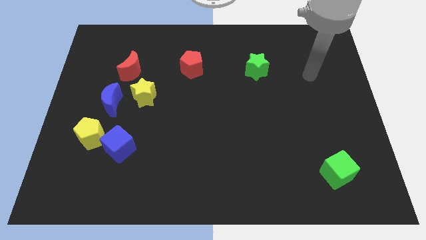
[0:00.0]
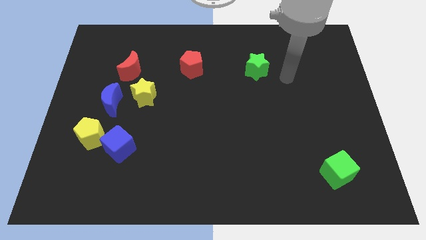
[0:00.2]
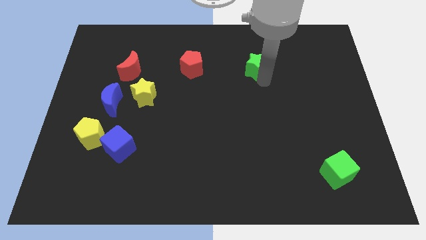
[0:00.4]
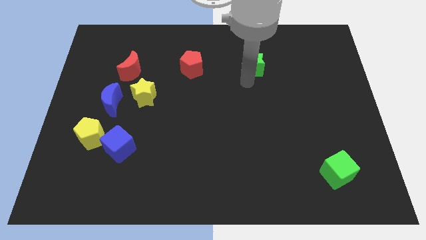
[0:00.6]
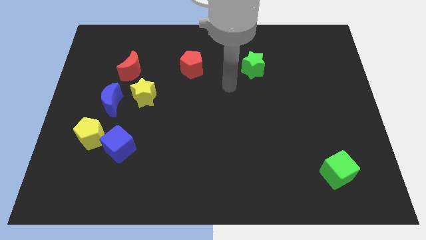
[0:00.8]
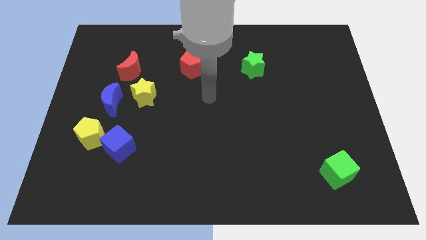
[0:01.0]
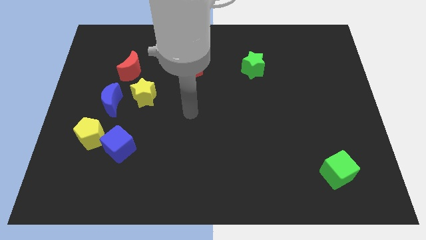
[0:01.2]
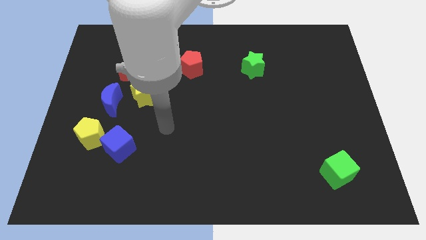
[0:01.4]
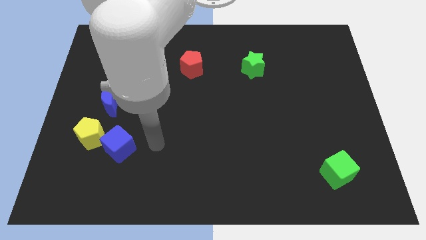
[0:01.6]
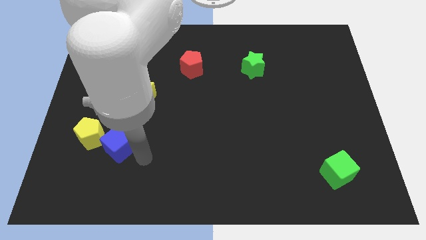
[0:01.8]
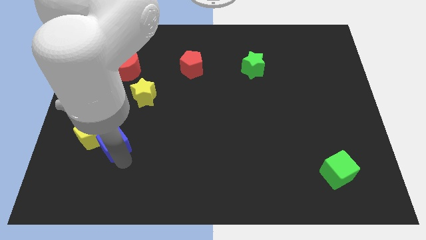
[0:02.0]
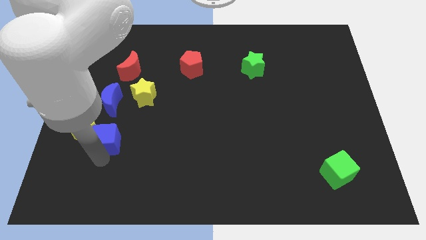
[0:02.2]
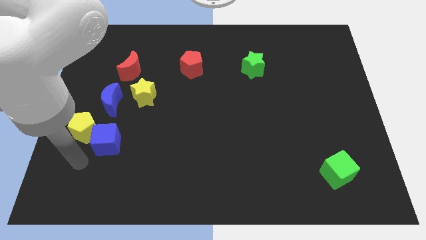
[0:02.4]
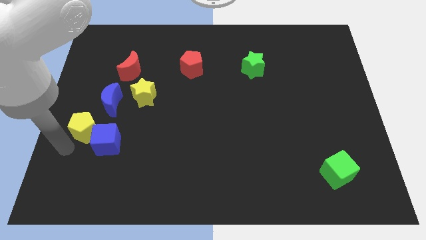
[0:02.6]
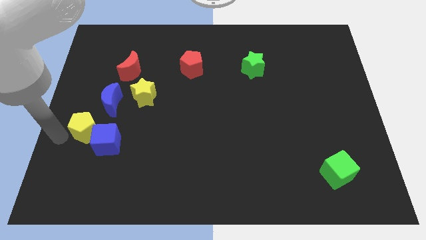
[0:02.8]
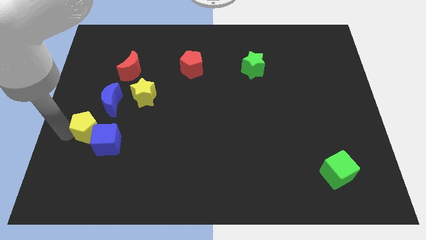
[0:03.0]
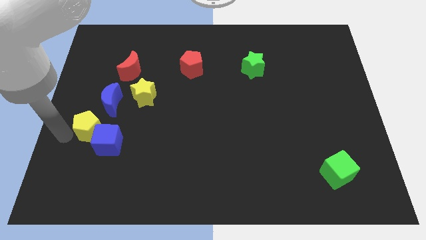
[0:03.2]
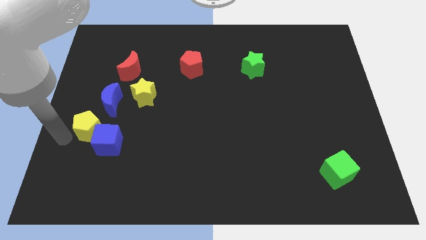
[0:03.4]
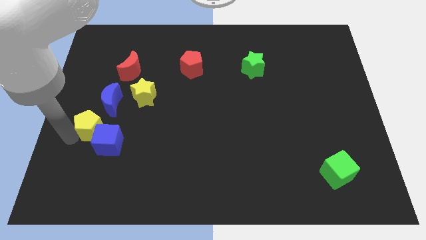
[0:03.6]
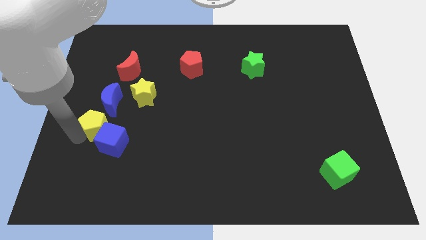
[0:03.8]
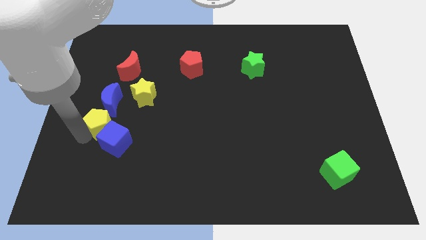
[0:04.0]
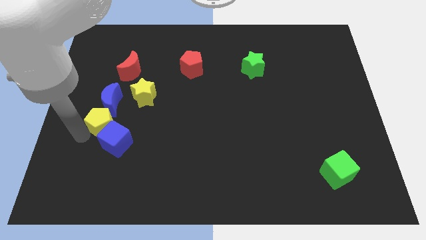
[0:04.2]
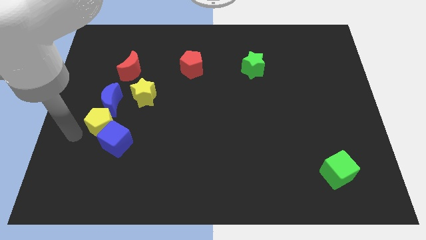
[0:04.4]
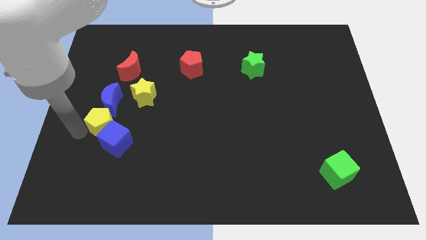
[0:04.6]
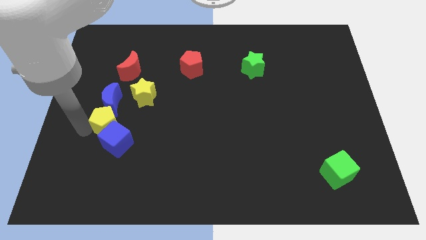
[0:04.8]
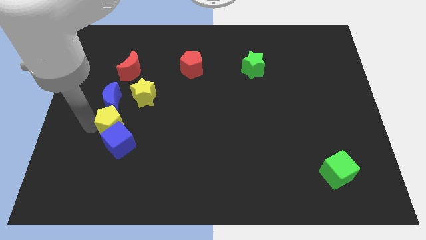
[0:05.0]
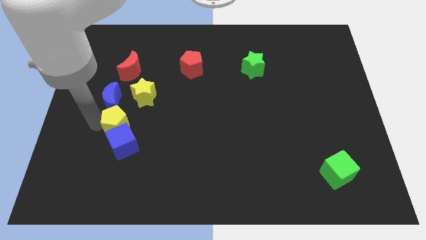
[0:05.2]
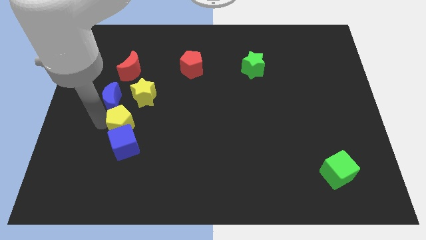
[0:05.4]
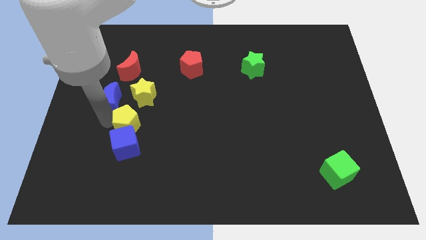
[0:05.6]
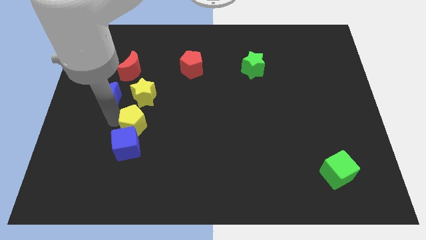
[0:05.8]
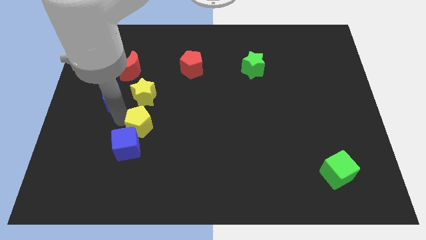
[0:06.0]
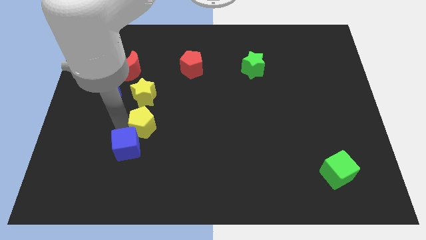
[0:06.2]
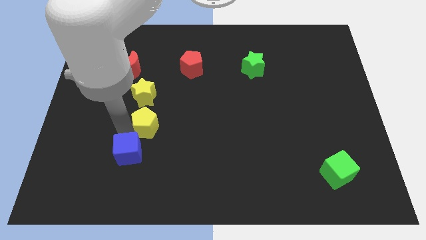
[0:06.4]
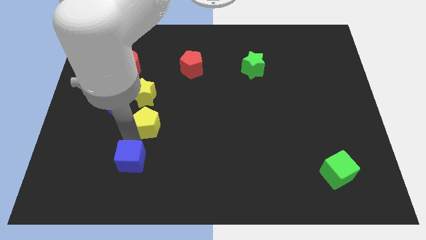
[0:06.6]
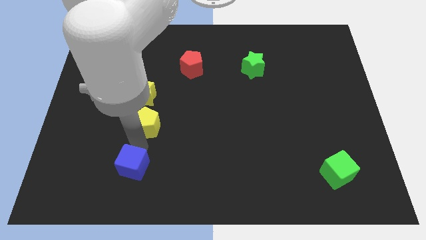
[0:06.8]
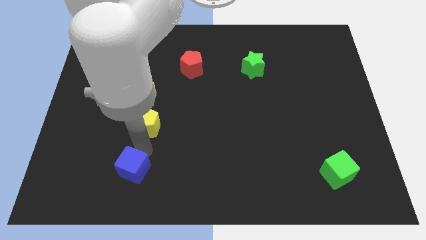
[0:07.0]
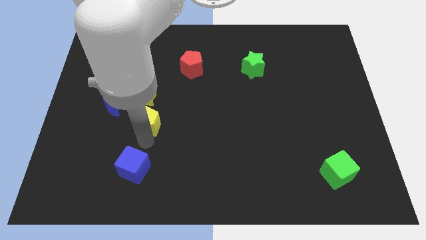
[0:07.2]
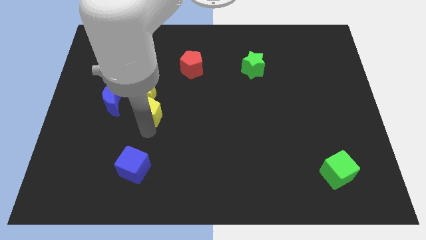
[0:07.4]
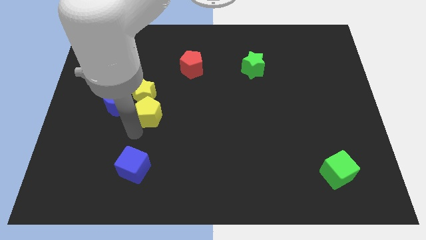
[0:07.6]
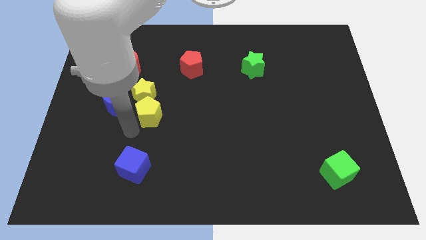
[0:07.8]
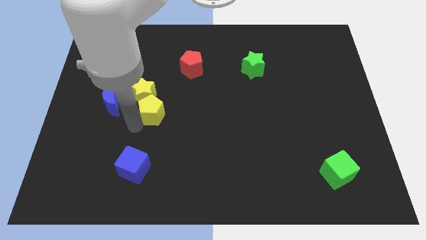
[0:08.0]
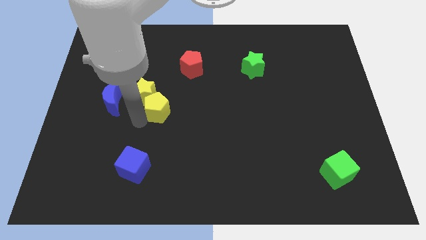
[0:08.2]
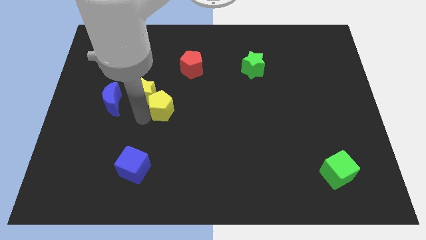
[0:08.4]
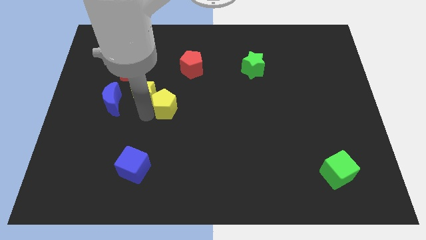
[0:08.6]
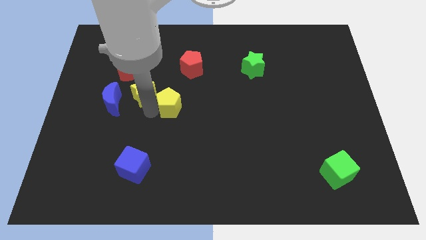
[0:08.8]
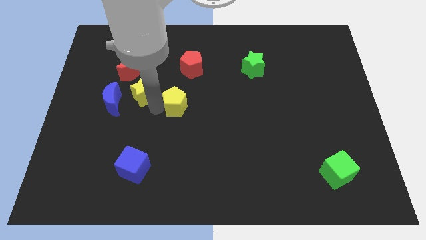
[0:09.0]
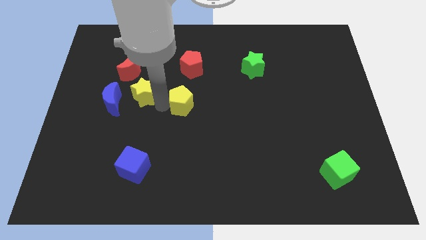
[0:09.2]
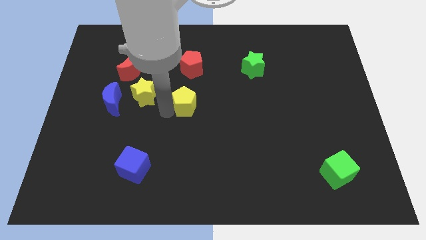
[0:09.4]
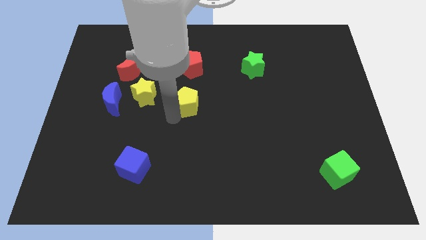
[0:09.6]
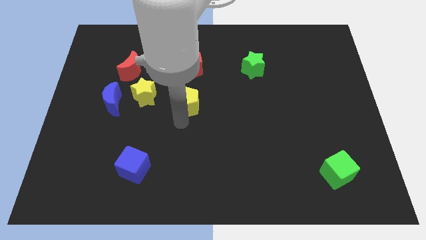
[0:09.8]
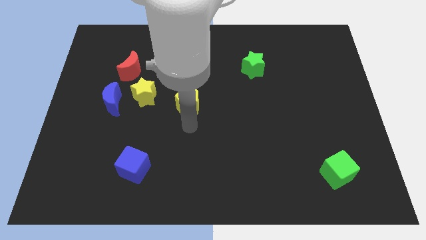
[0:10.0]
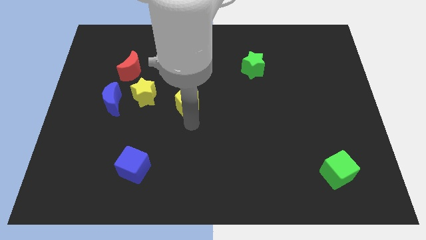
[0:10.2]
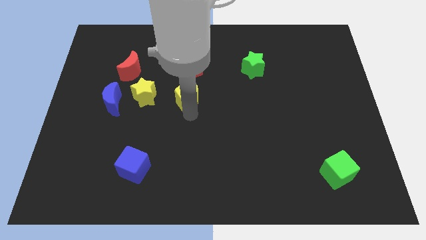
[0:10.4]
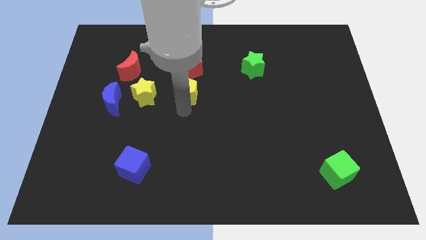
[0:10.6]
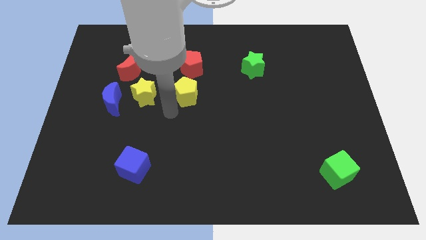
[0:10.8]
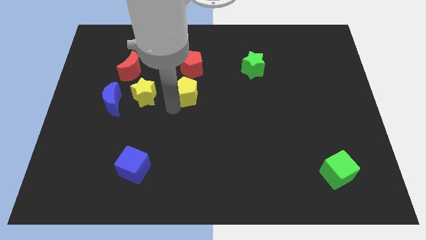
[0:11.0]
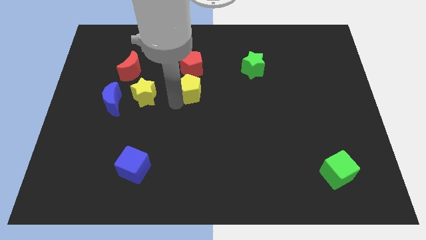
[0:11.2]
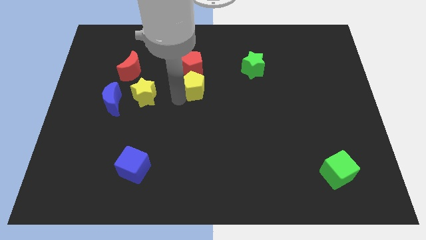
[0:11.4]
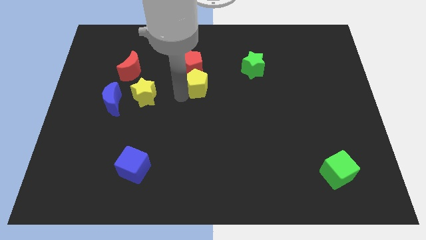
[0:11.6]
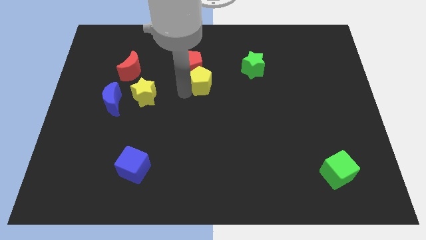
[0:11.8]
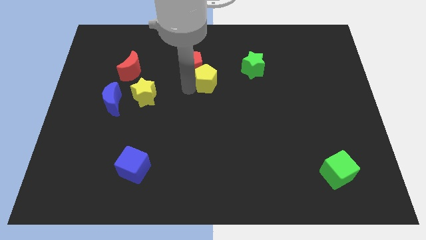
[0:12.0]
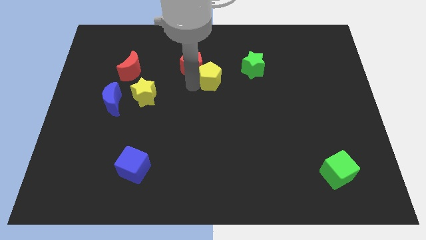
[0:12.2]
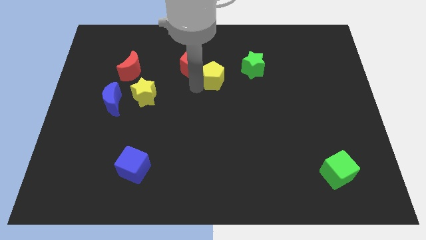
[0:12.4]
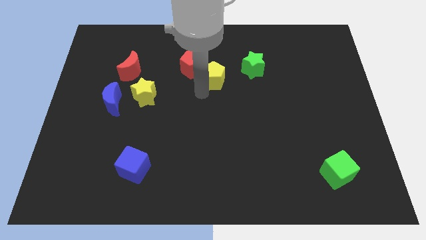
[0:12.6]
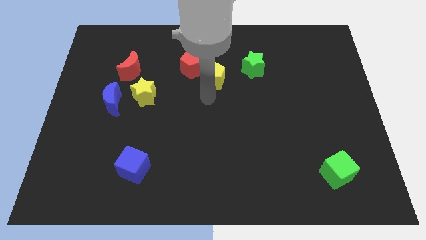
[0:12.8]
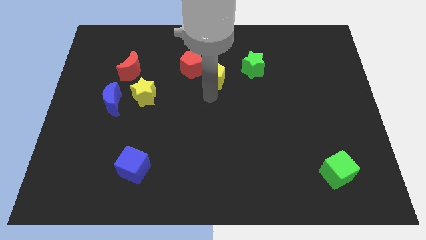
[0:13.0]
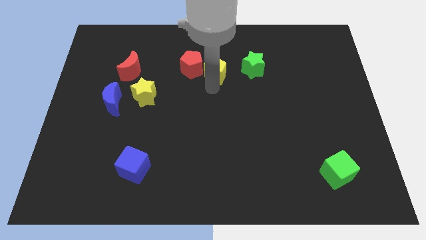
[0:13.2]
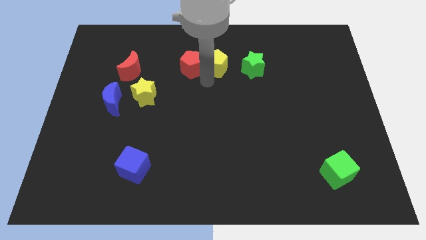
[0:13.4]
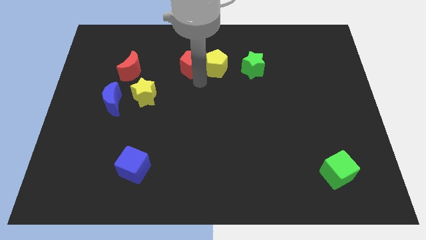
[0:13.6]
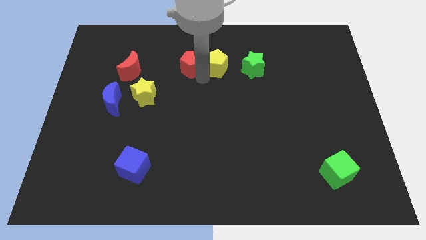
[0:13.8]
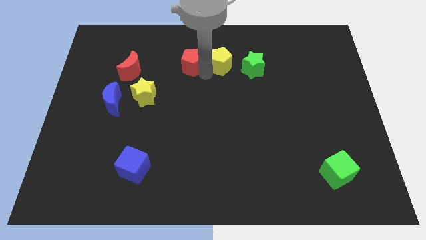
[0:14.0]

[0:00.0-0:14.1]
slide the yellow pentagon to the top left side of the green star
